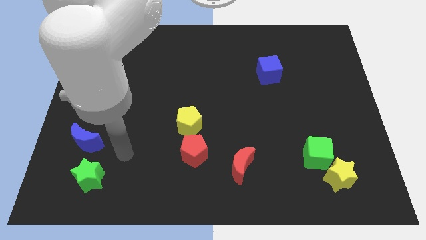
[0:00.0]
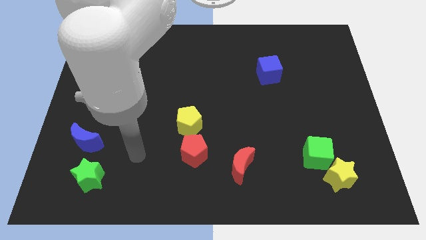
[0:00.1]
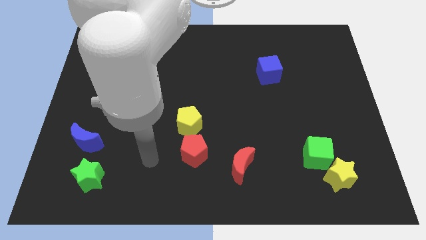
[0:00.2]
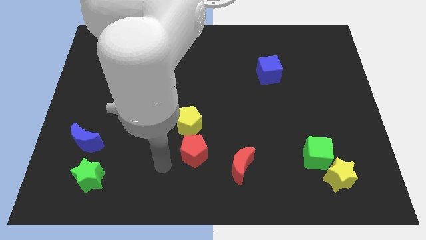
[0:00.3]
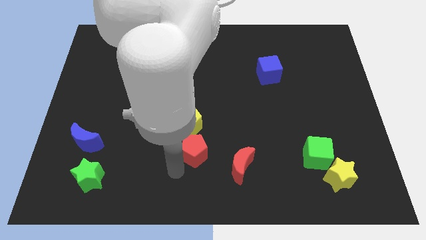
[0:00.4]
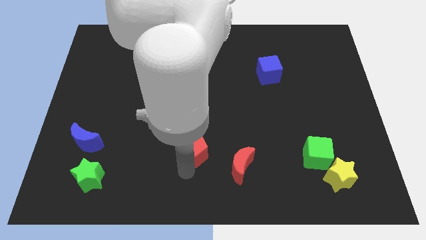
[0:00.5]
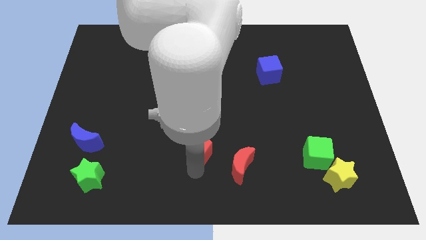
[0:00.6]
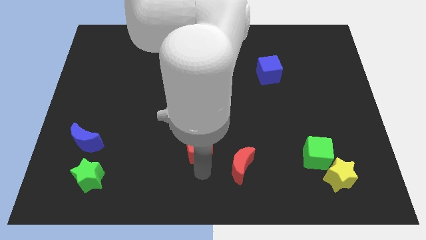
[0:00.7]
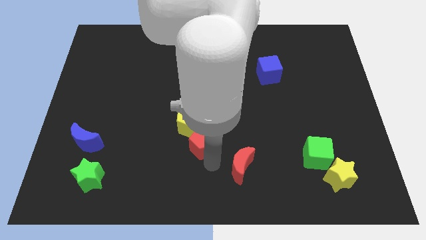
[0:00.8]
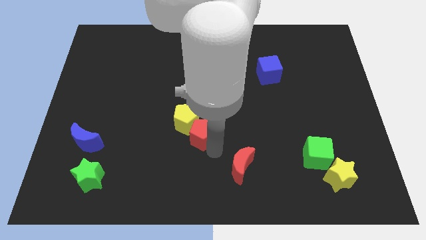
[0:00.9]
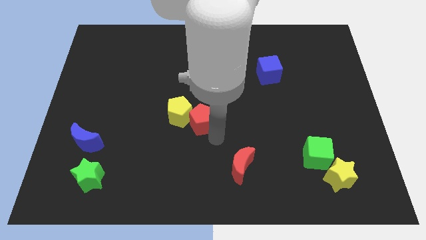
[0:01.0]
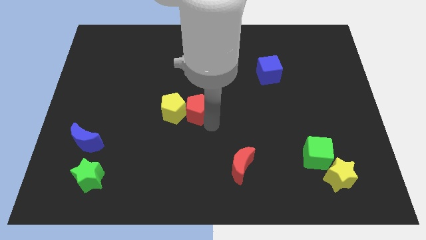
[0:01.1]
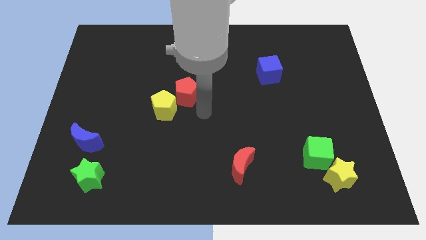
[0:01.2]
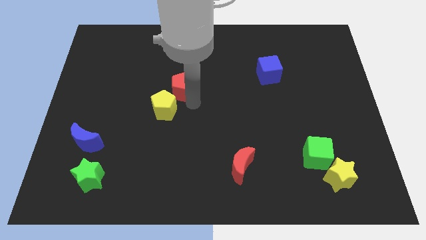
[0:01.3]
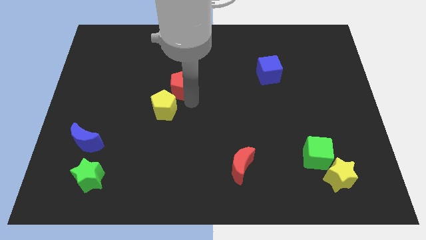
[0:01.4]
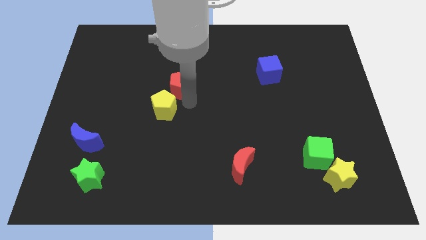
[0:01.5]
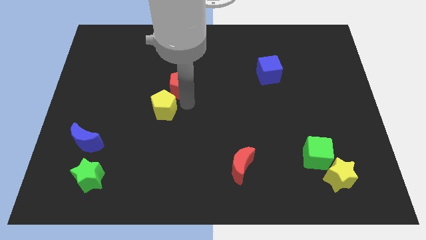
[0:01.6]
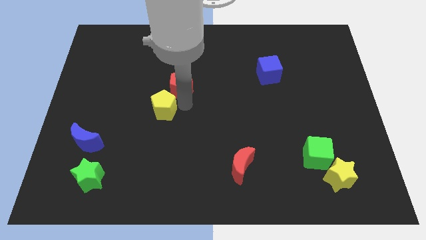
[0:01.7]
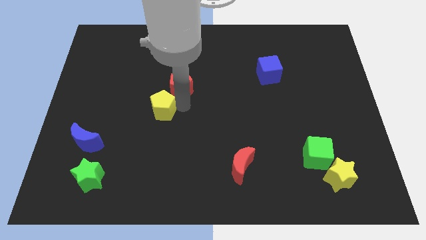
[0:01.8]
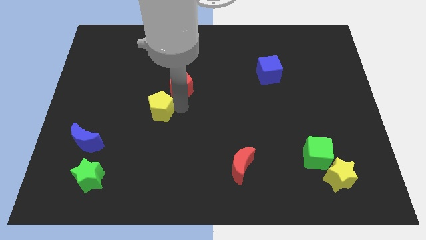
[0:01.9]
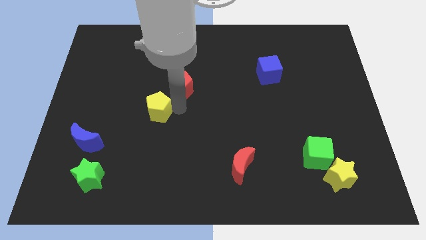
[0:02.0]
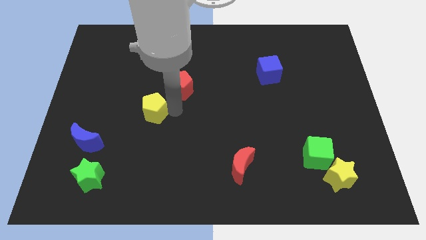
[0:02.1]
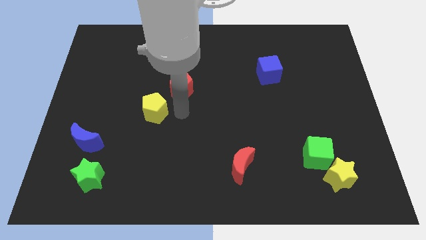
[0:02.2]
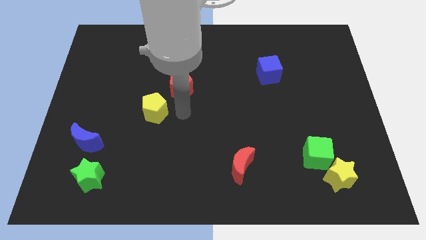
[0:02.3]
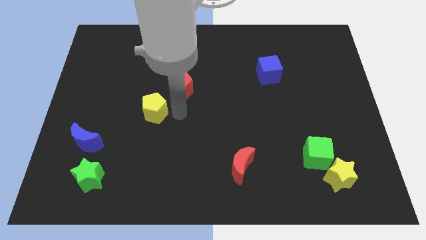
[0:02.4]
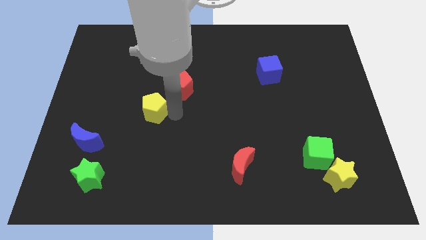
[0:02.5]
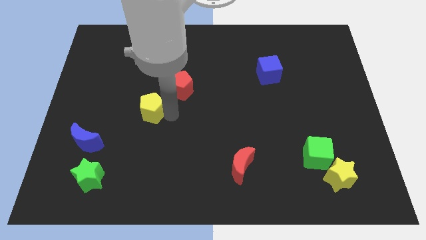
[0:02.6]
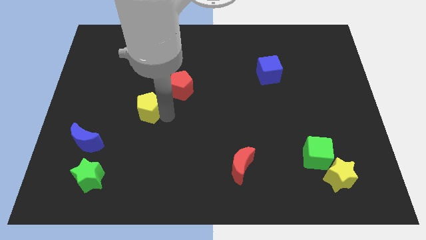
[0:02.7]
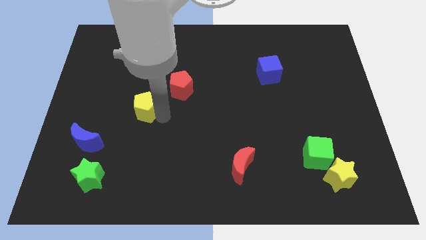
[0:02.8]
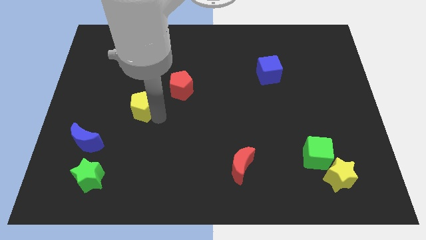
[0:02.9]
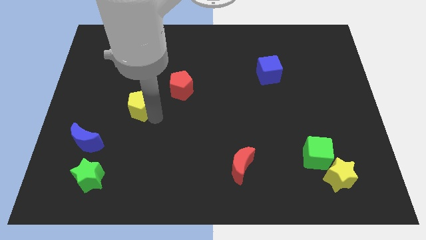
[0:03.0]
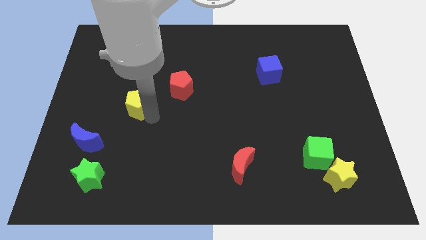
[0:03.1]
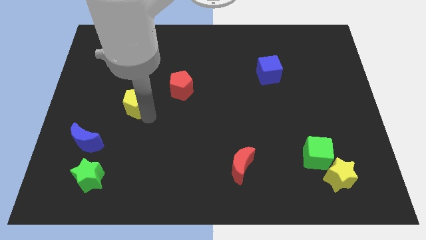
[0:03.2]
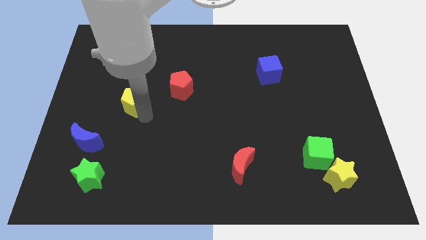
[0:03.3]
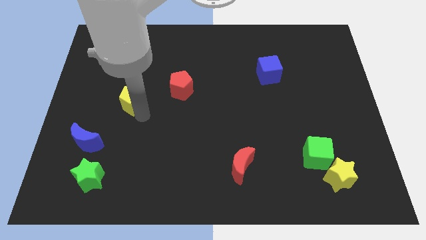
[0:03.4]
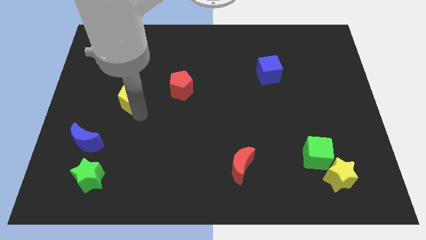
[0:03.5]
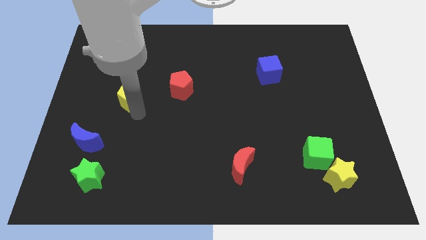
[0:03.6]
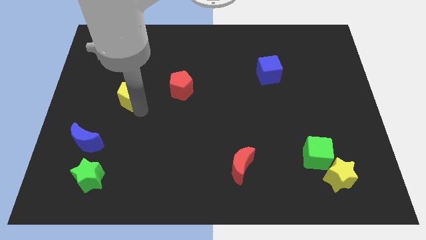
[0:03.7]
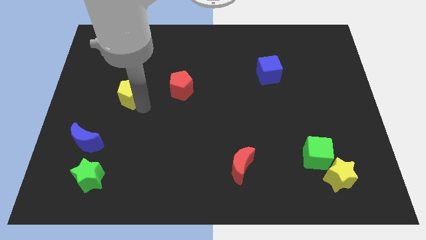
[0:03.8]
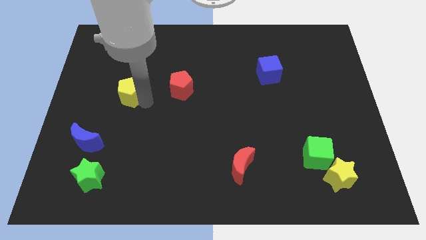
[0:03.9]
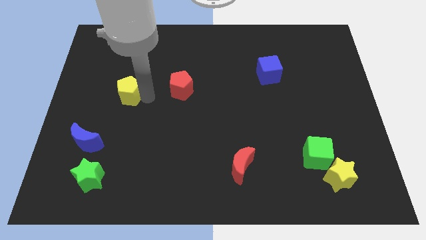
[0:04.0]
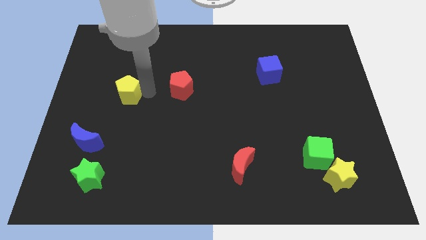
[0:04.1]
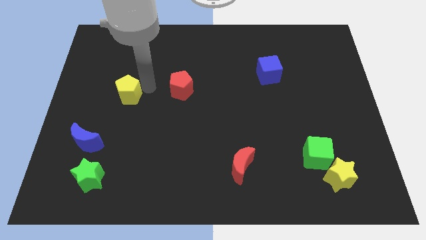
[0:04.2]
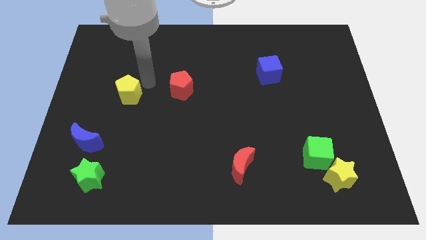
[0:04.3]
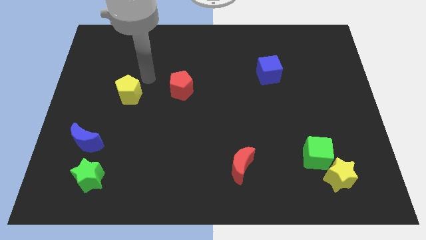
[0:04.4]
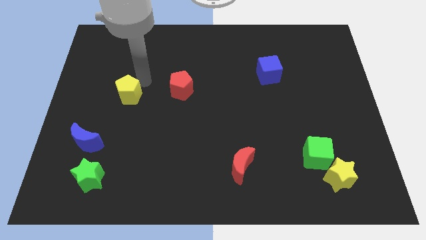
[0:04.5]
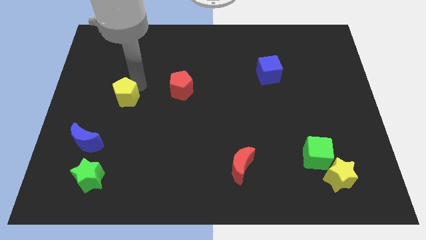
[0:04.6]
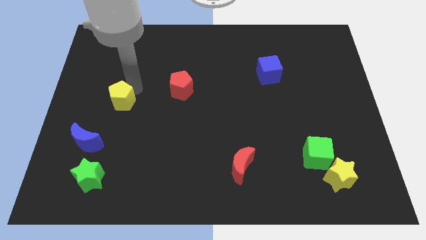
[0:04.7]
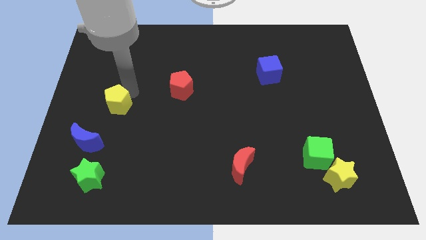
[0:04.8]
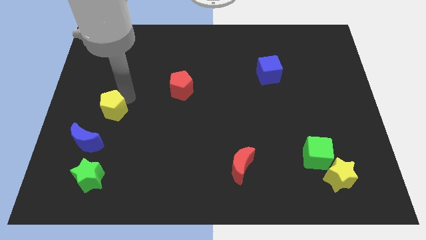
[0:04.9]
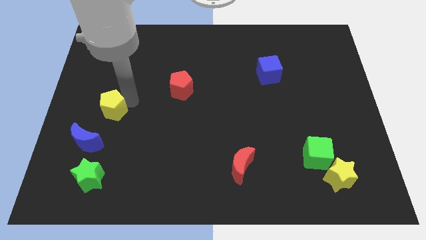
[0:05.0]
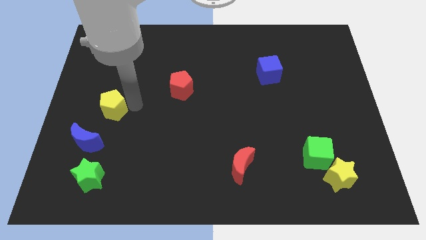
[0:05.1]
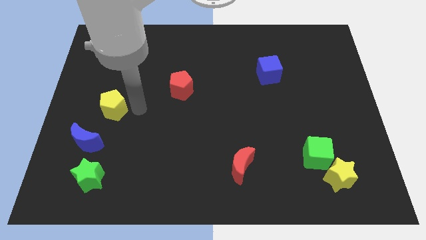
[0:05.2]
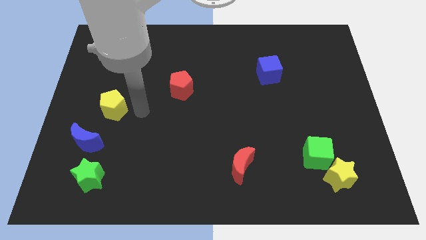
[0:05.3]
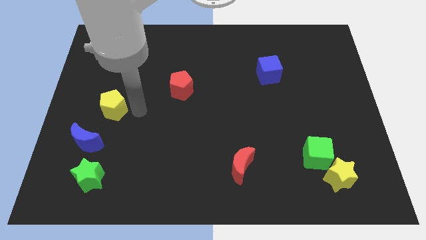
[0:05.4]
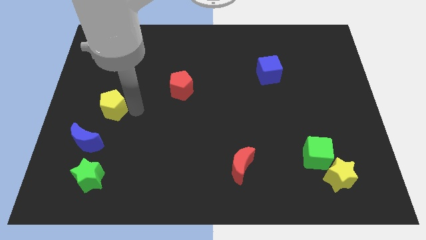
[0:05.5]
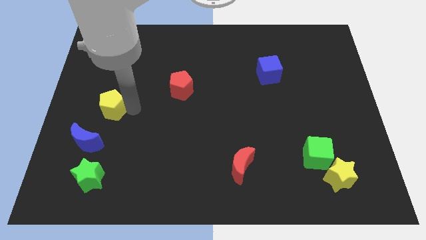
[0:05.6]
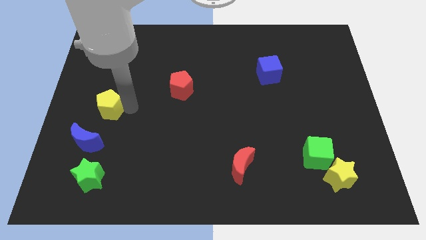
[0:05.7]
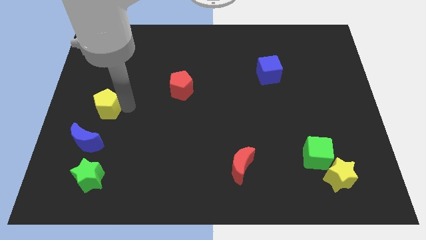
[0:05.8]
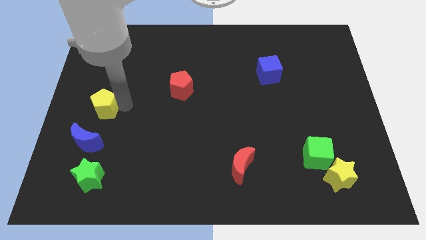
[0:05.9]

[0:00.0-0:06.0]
push the yellow pentagon to the center left

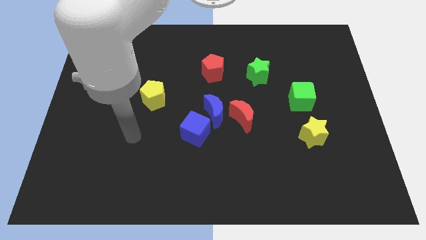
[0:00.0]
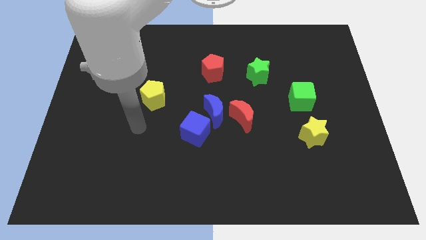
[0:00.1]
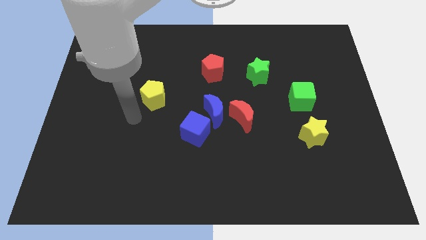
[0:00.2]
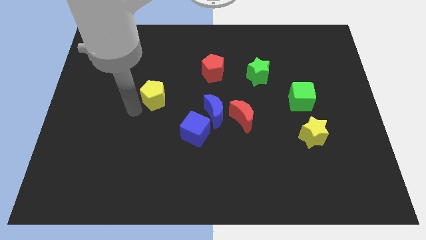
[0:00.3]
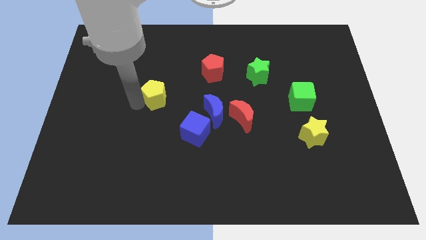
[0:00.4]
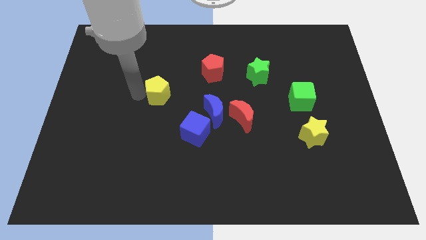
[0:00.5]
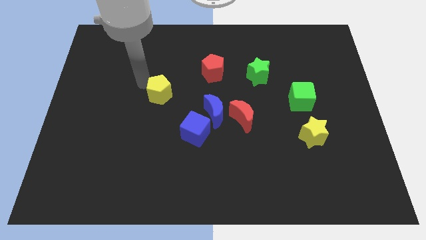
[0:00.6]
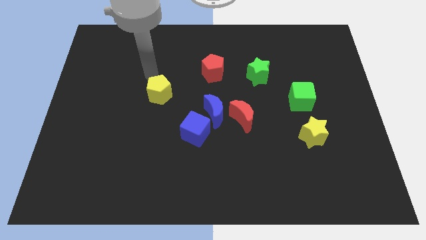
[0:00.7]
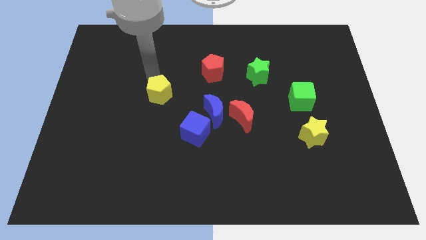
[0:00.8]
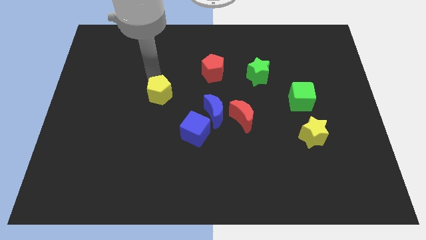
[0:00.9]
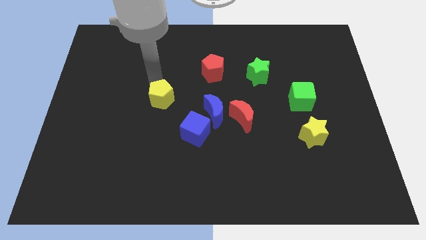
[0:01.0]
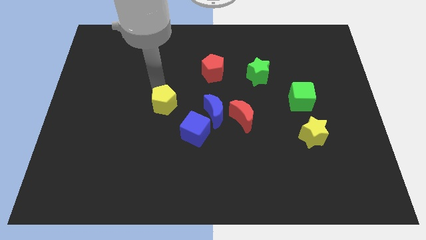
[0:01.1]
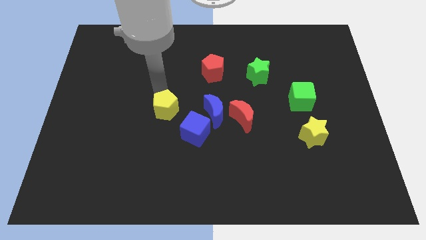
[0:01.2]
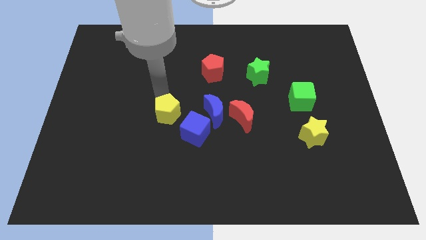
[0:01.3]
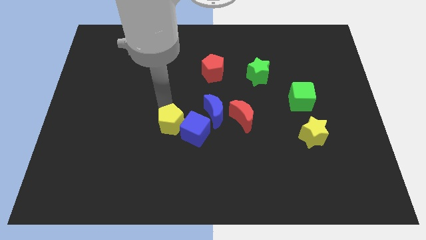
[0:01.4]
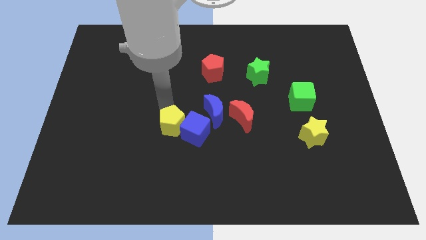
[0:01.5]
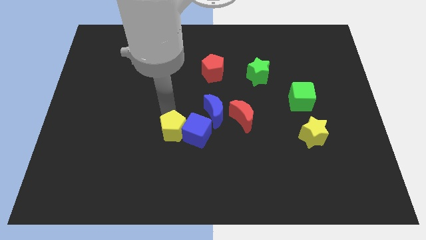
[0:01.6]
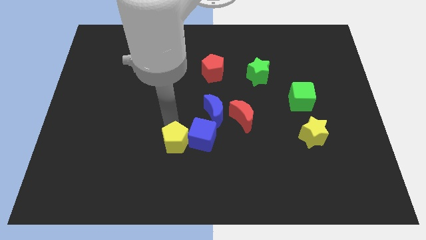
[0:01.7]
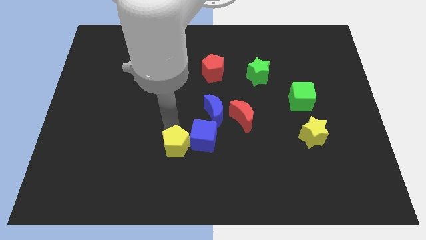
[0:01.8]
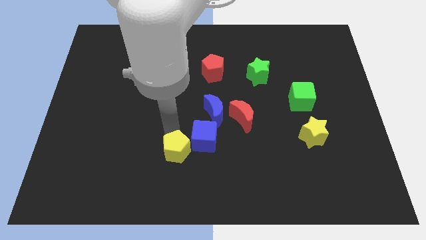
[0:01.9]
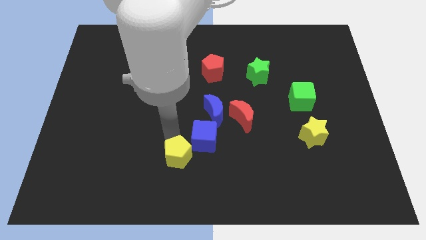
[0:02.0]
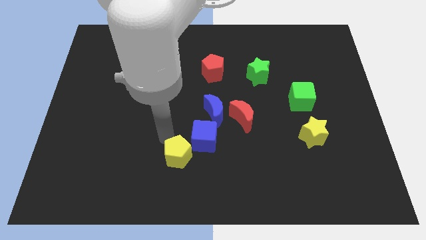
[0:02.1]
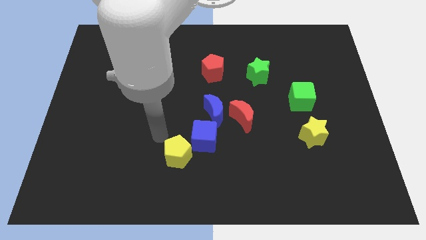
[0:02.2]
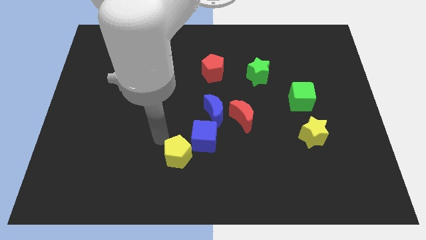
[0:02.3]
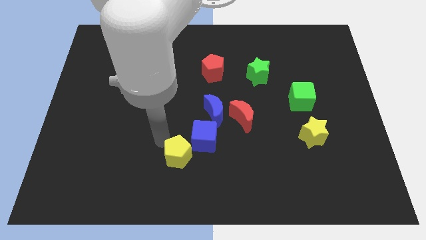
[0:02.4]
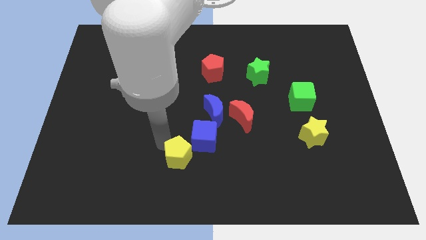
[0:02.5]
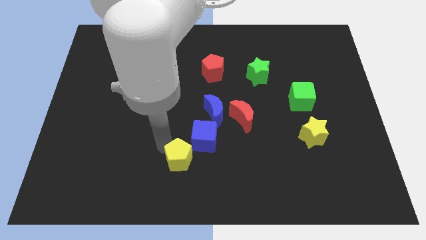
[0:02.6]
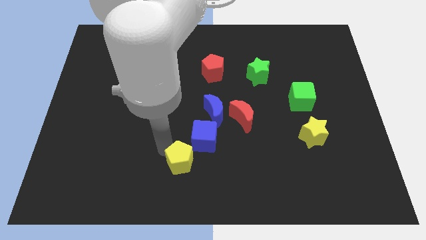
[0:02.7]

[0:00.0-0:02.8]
put the yellow pentagon to the bottom
